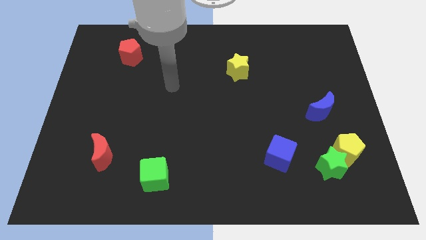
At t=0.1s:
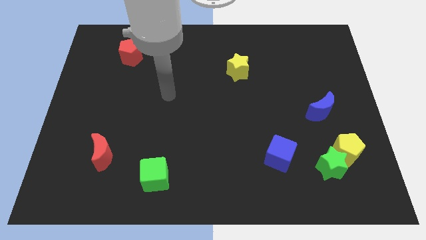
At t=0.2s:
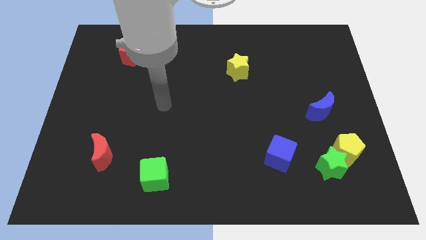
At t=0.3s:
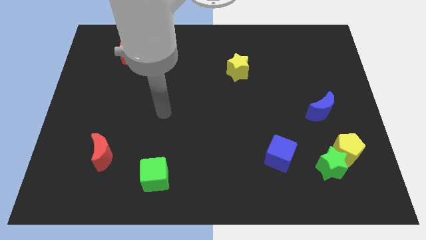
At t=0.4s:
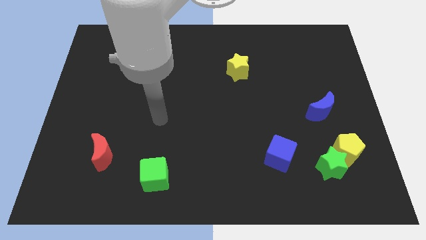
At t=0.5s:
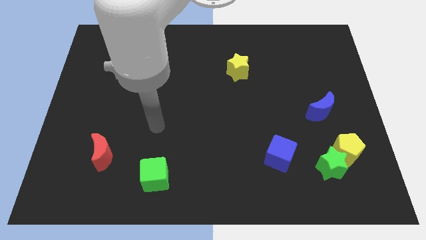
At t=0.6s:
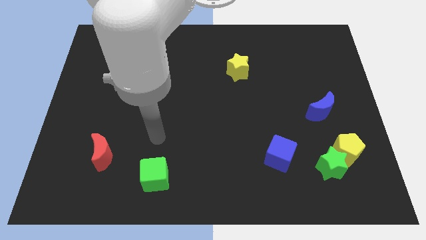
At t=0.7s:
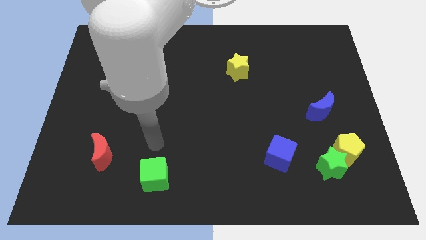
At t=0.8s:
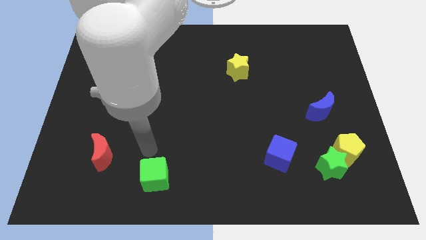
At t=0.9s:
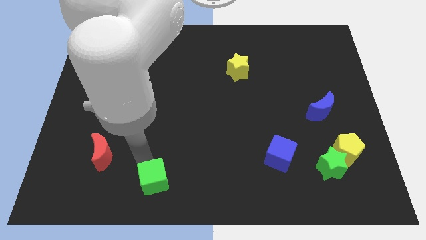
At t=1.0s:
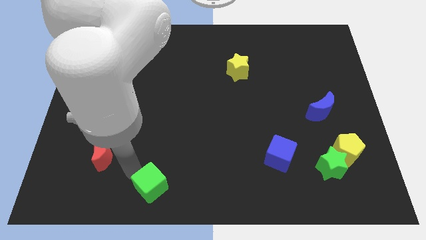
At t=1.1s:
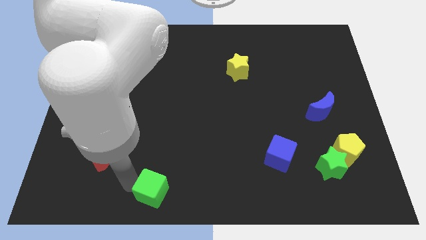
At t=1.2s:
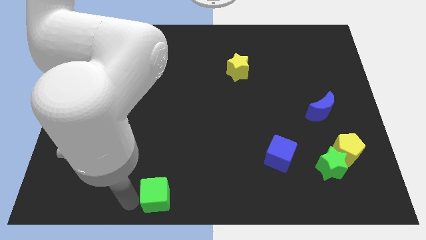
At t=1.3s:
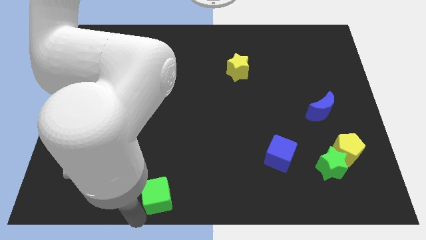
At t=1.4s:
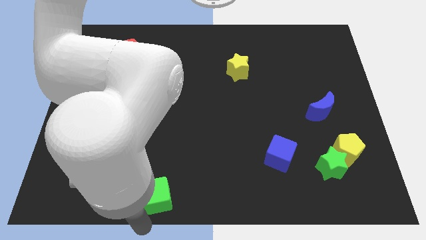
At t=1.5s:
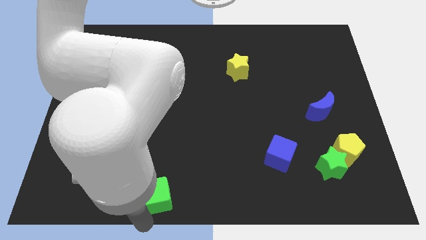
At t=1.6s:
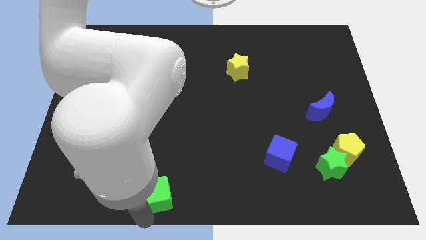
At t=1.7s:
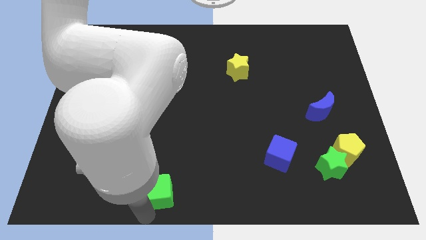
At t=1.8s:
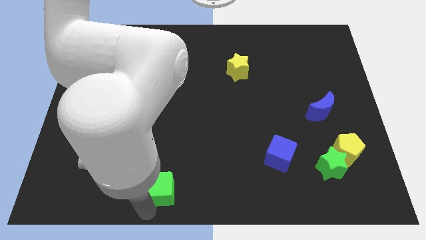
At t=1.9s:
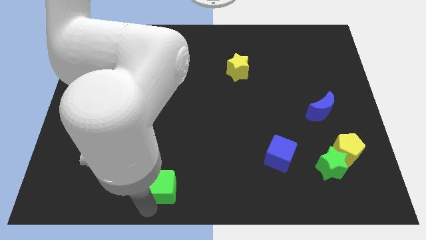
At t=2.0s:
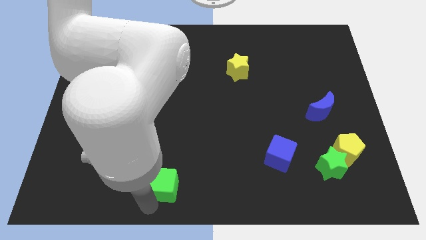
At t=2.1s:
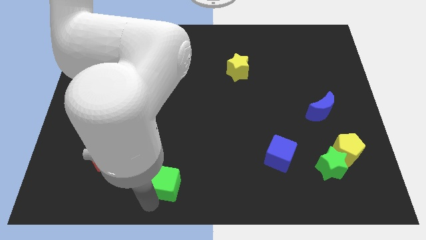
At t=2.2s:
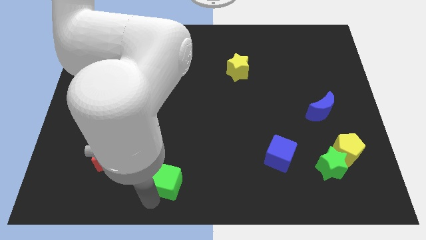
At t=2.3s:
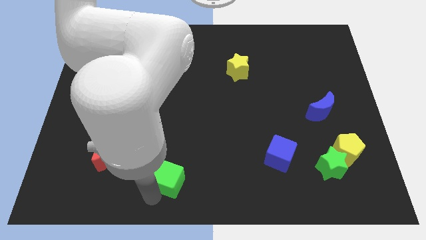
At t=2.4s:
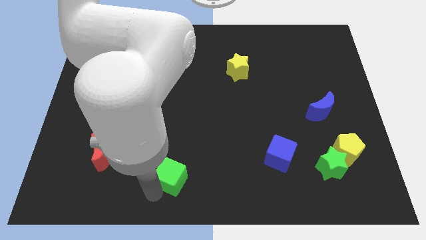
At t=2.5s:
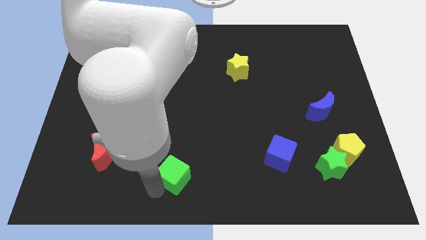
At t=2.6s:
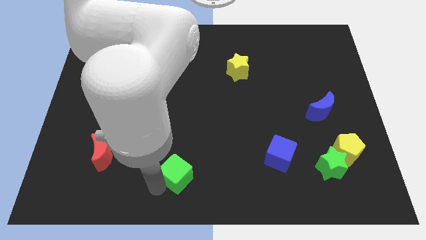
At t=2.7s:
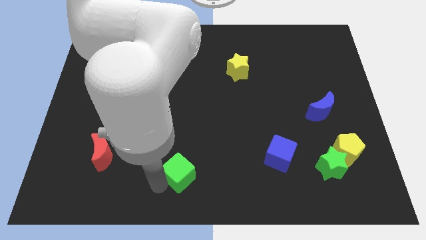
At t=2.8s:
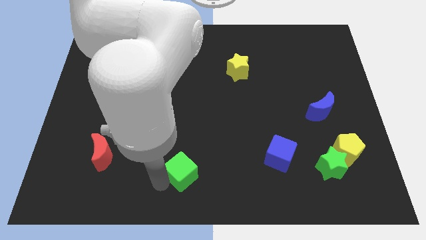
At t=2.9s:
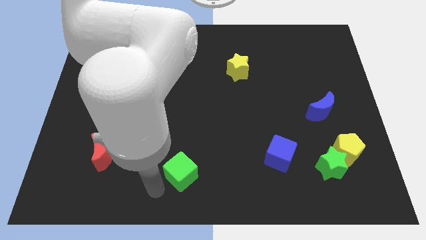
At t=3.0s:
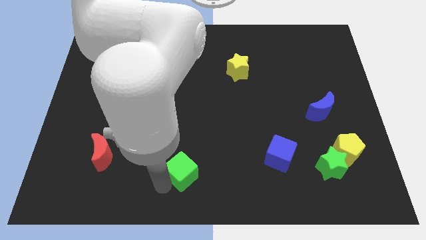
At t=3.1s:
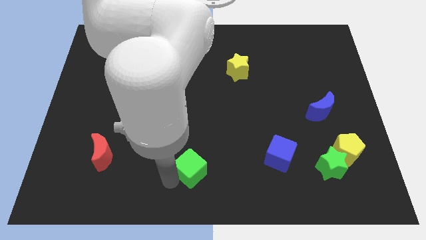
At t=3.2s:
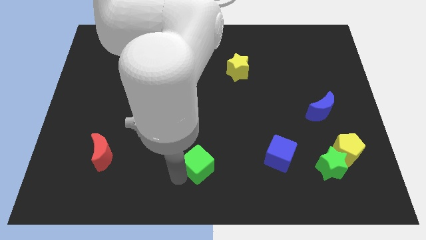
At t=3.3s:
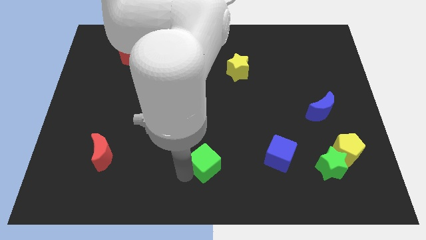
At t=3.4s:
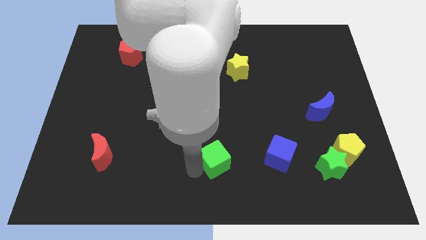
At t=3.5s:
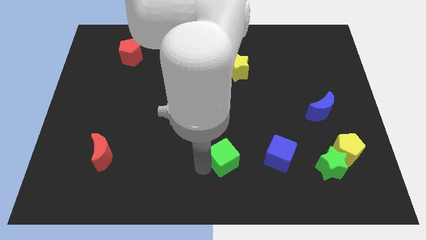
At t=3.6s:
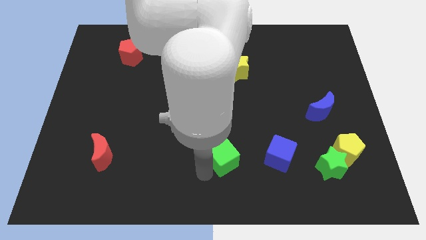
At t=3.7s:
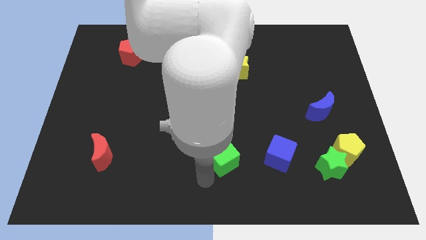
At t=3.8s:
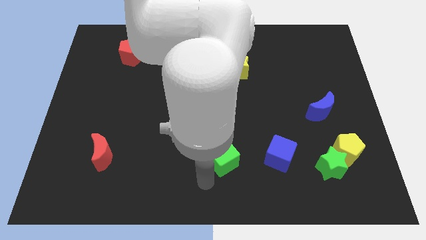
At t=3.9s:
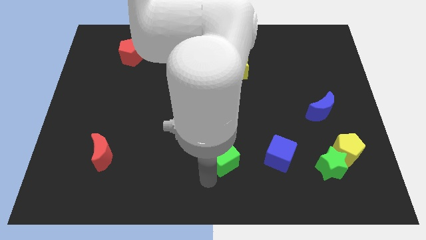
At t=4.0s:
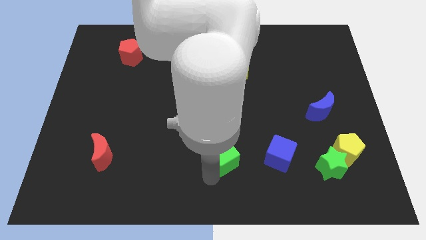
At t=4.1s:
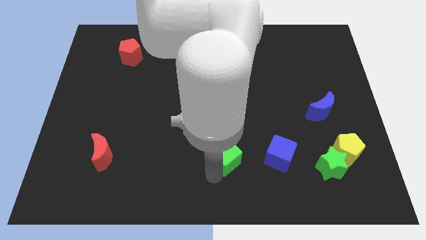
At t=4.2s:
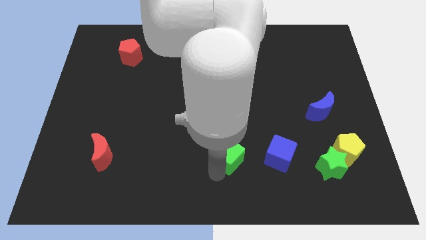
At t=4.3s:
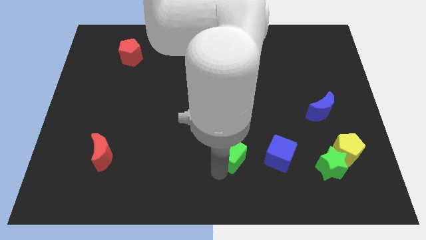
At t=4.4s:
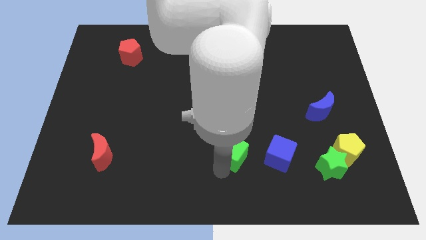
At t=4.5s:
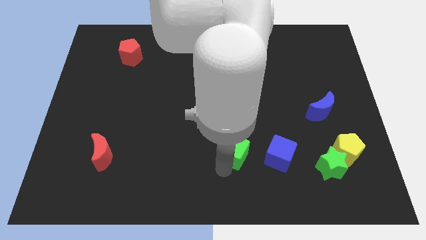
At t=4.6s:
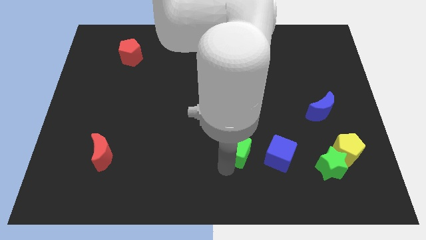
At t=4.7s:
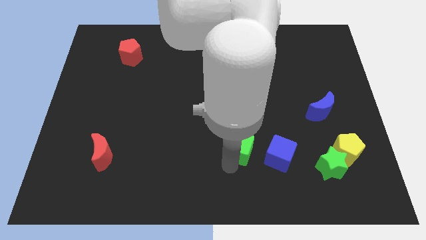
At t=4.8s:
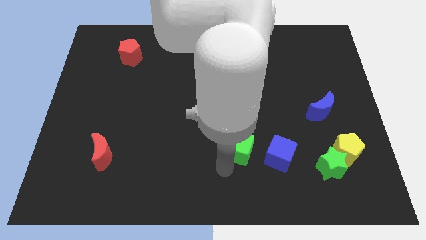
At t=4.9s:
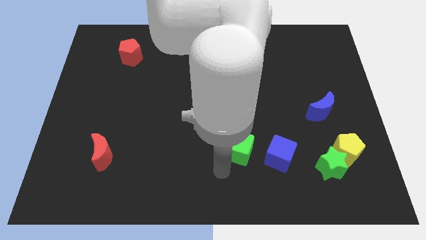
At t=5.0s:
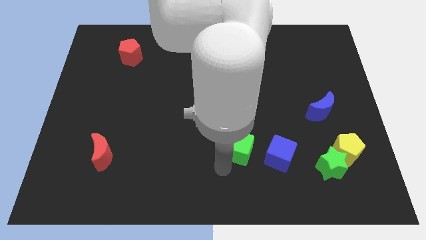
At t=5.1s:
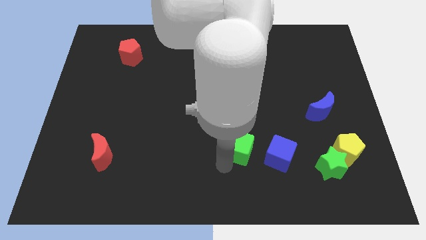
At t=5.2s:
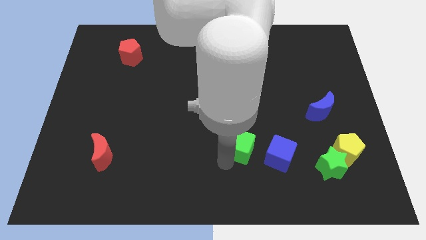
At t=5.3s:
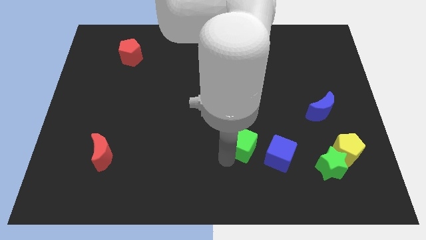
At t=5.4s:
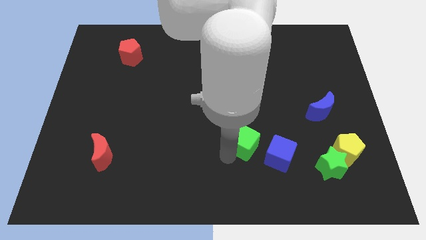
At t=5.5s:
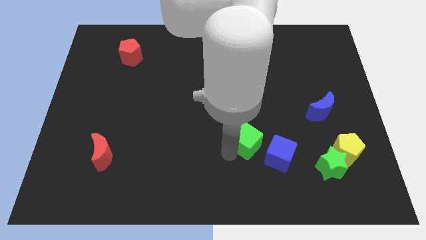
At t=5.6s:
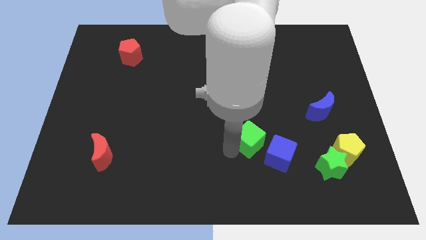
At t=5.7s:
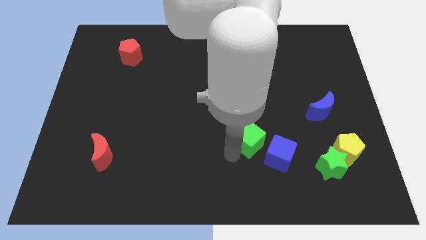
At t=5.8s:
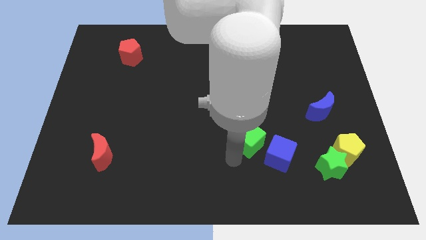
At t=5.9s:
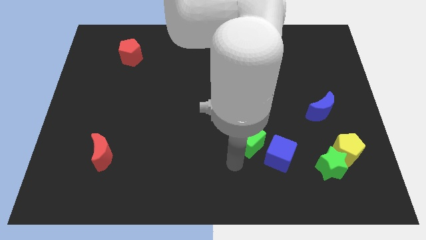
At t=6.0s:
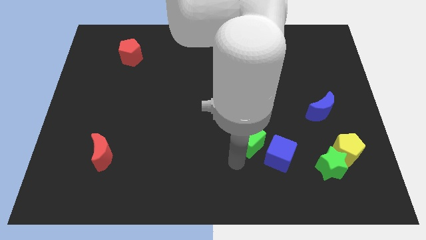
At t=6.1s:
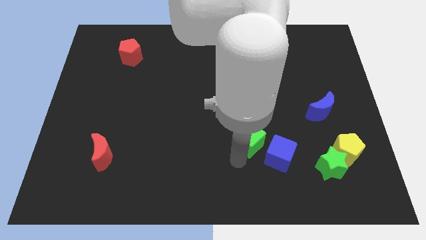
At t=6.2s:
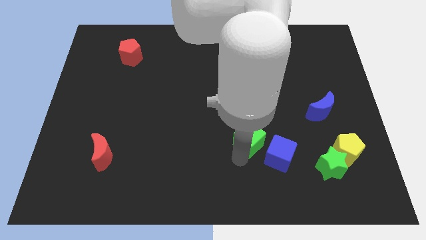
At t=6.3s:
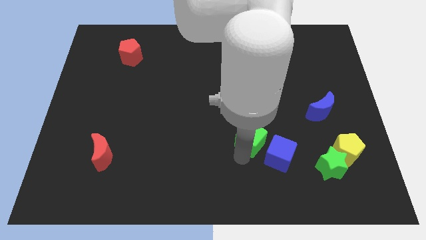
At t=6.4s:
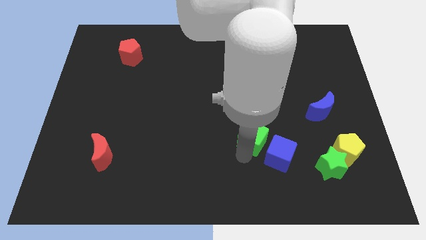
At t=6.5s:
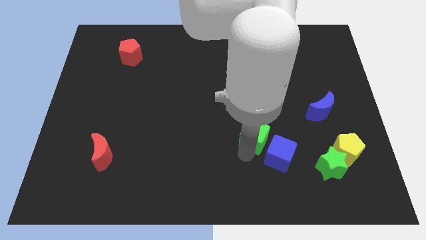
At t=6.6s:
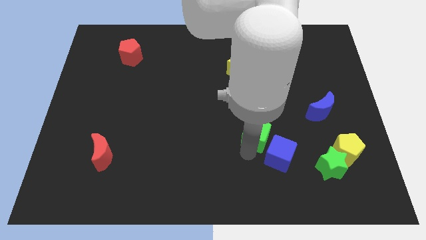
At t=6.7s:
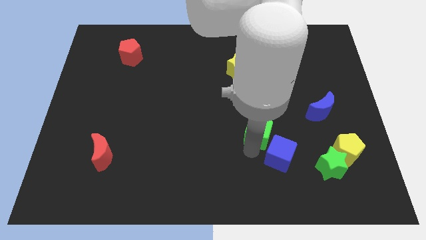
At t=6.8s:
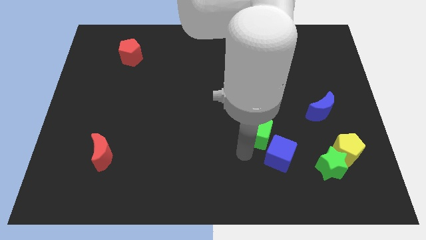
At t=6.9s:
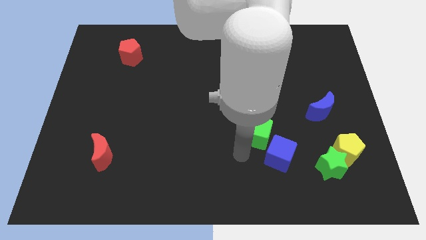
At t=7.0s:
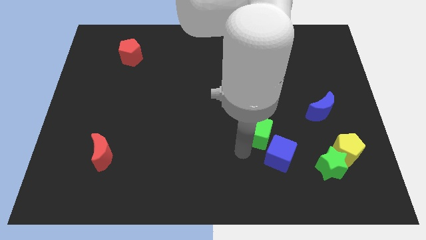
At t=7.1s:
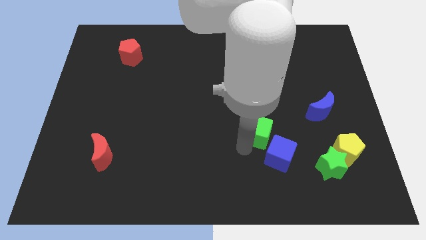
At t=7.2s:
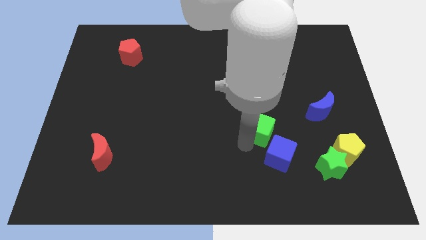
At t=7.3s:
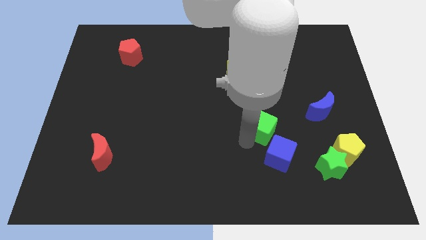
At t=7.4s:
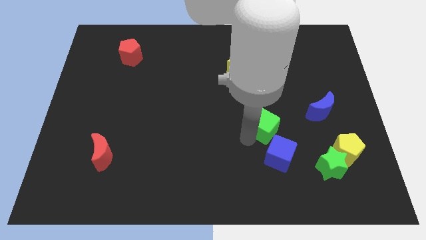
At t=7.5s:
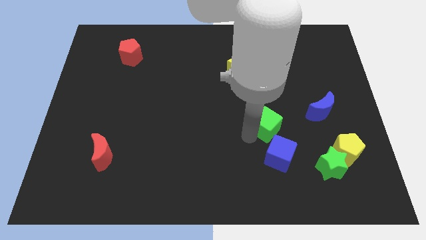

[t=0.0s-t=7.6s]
push the green cube to the left of the blue moon

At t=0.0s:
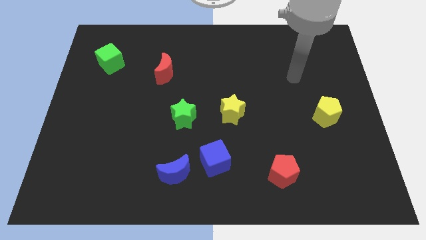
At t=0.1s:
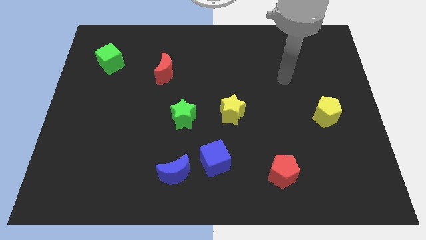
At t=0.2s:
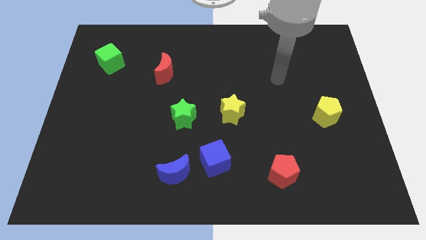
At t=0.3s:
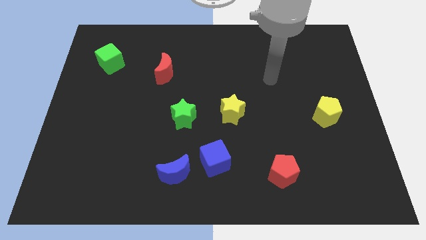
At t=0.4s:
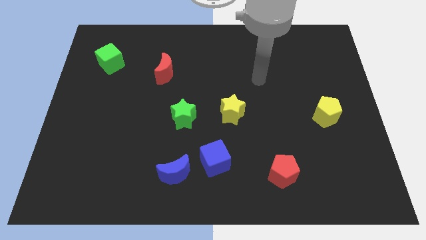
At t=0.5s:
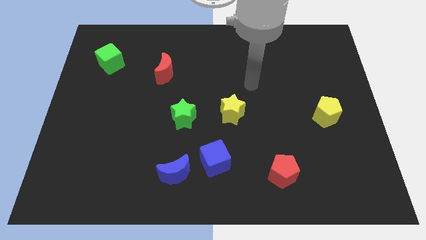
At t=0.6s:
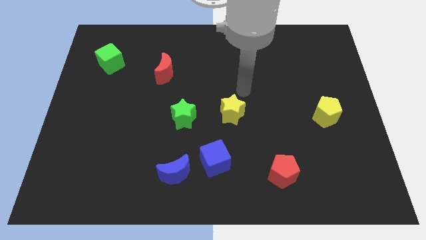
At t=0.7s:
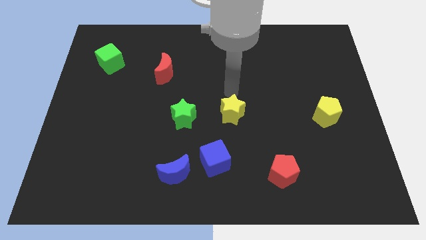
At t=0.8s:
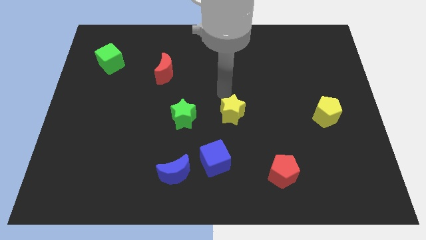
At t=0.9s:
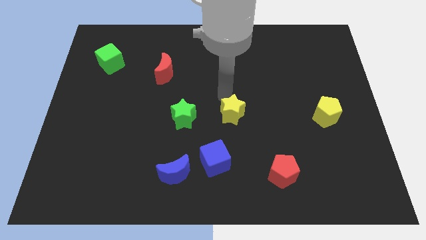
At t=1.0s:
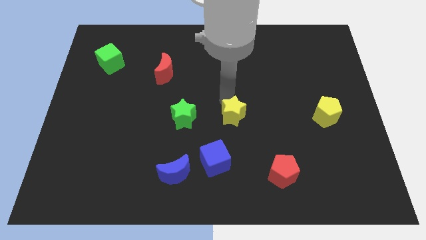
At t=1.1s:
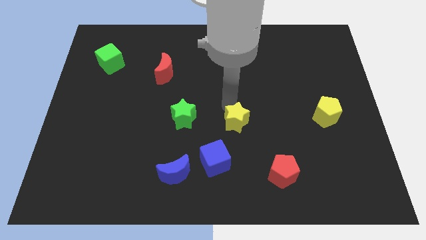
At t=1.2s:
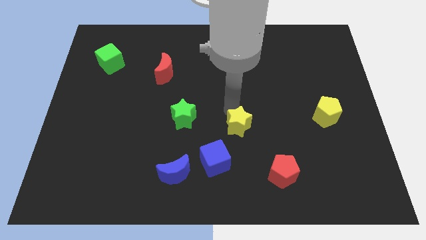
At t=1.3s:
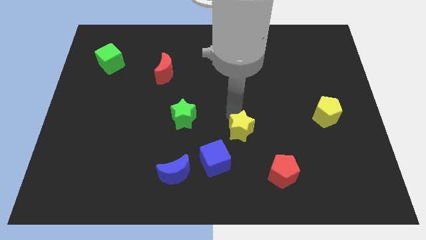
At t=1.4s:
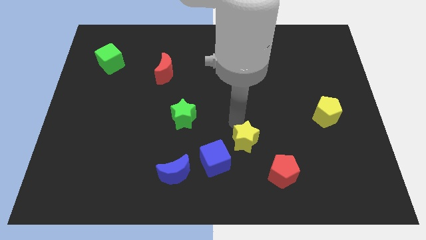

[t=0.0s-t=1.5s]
move the yellow star just right of the blue cube
